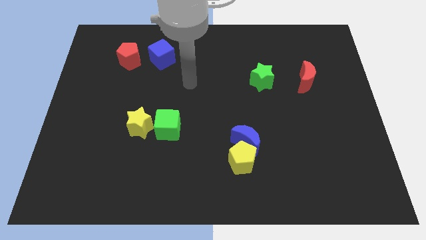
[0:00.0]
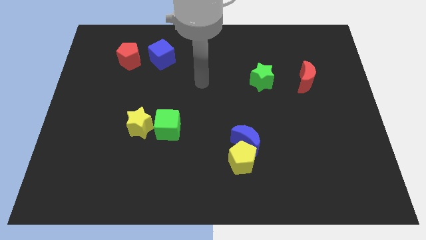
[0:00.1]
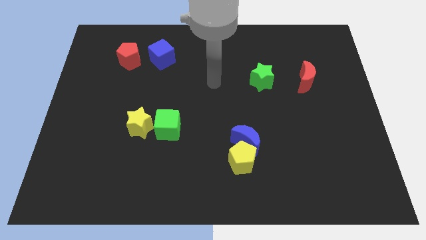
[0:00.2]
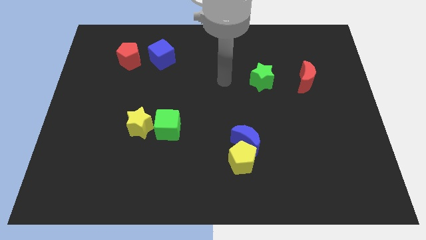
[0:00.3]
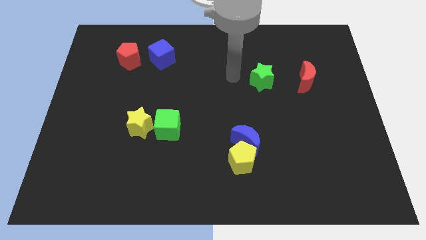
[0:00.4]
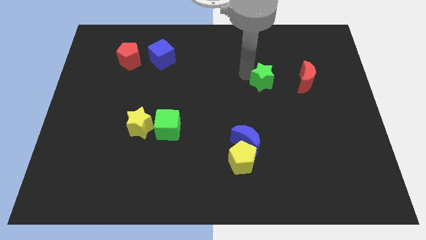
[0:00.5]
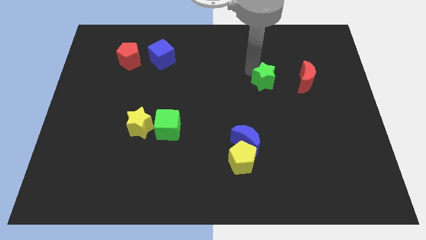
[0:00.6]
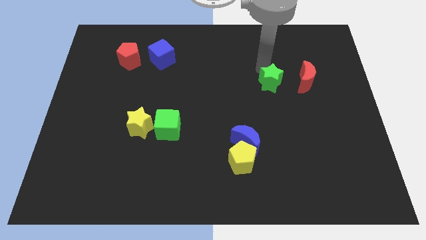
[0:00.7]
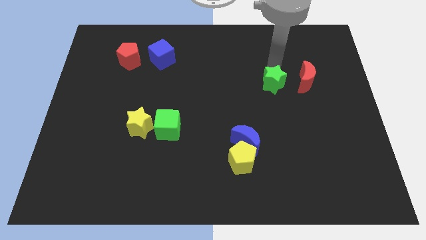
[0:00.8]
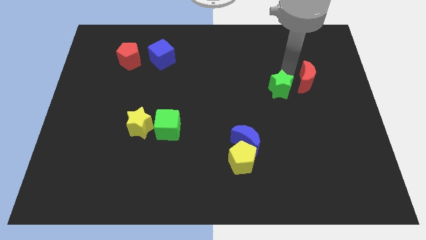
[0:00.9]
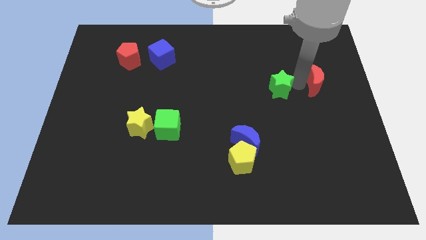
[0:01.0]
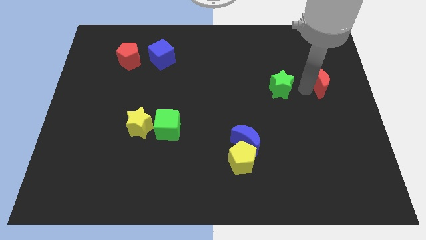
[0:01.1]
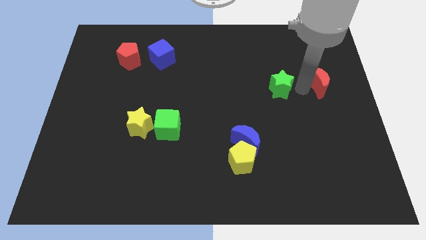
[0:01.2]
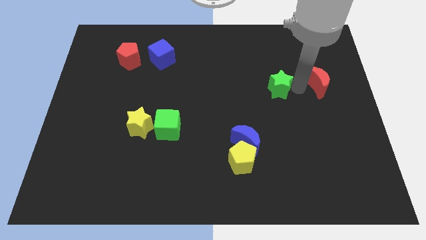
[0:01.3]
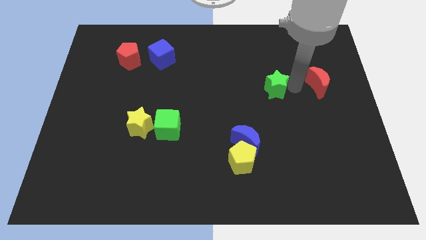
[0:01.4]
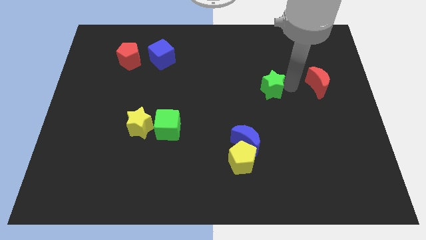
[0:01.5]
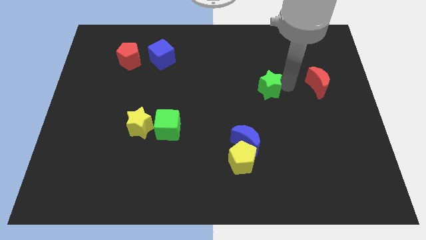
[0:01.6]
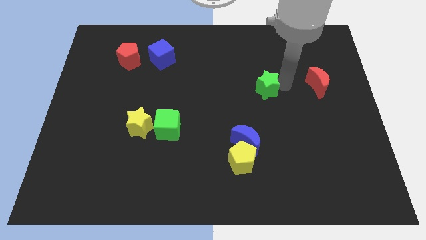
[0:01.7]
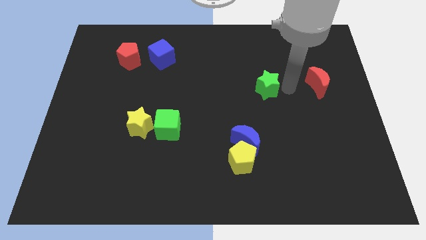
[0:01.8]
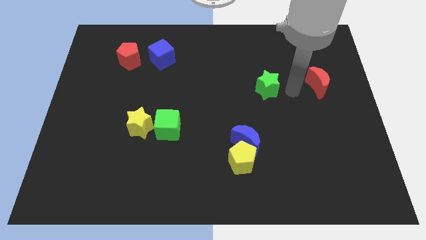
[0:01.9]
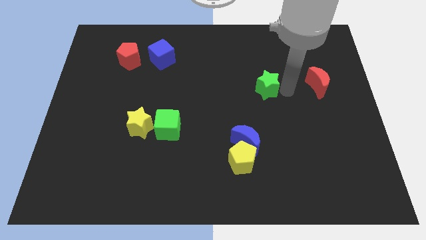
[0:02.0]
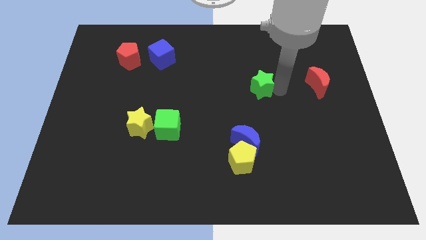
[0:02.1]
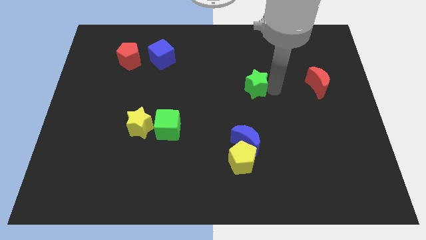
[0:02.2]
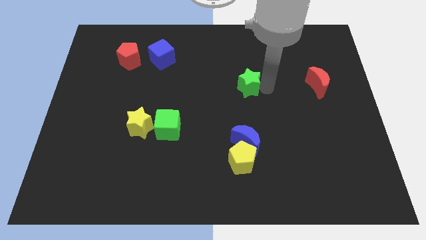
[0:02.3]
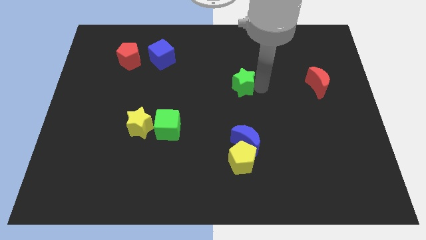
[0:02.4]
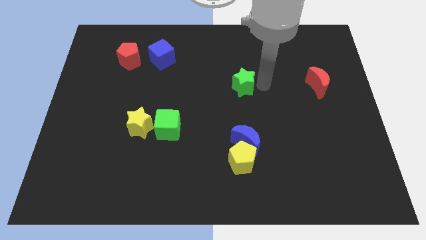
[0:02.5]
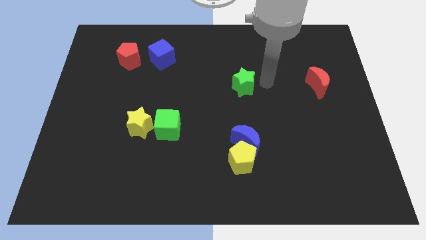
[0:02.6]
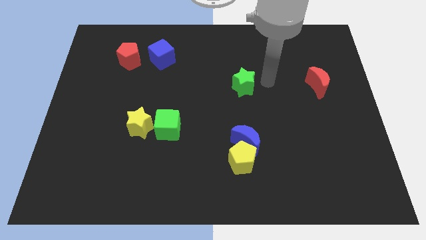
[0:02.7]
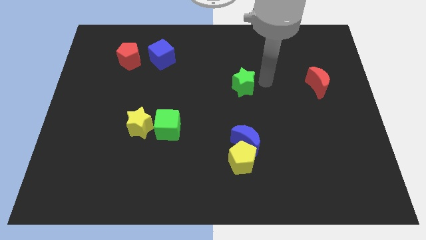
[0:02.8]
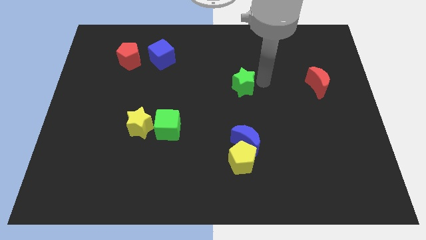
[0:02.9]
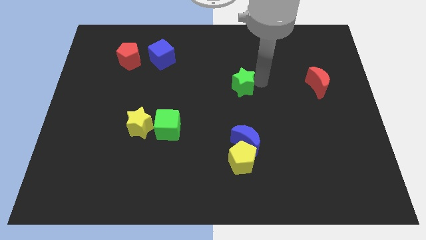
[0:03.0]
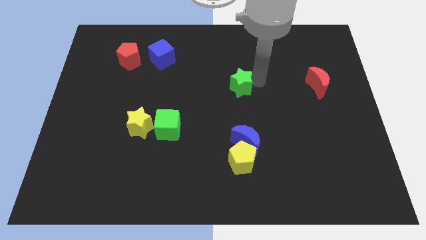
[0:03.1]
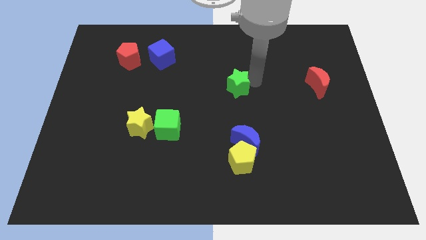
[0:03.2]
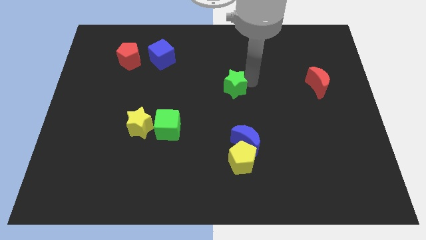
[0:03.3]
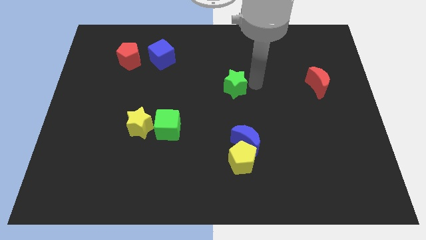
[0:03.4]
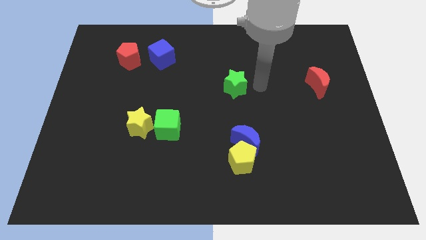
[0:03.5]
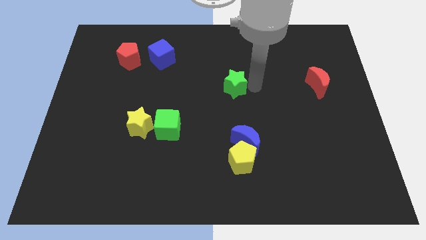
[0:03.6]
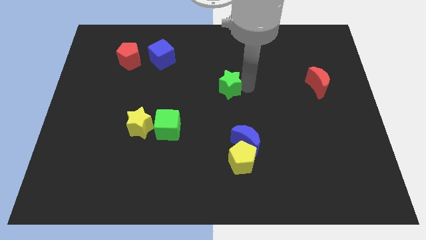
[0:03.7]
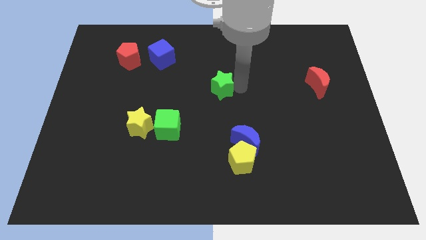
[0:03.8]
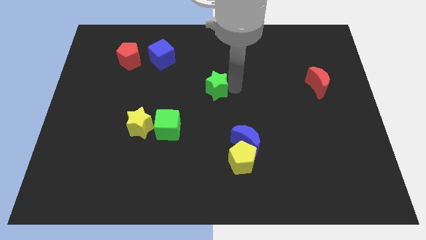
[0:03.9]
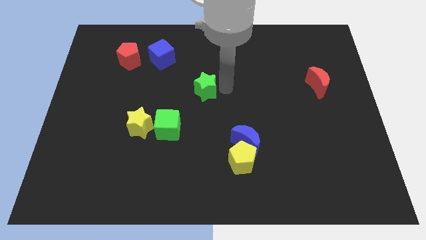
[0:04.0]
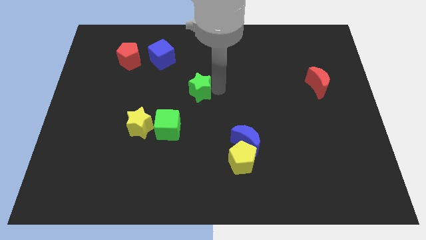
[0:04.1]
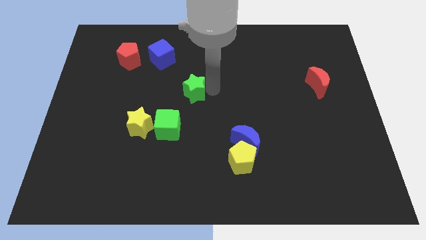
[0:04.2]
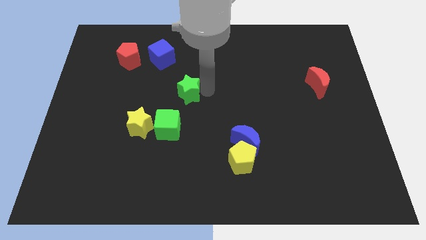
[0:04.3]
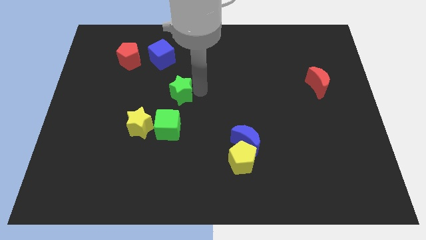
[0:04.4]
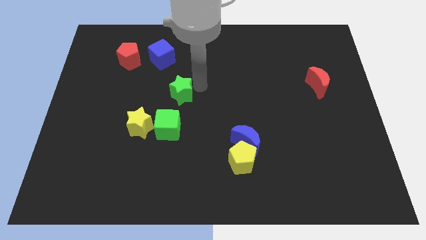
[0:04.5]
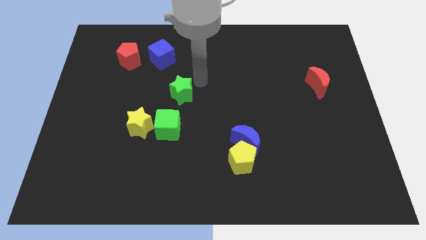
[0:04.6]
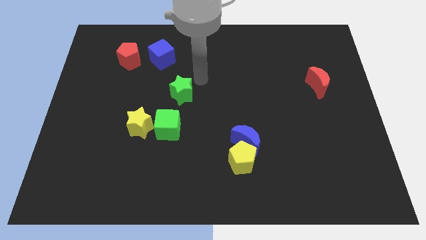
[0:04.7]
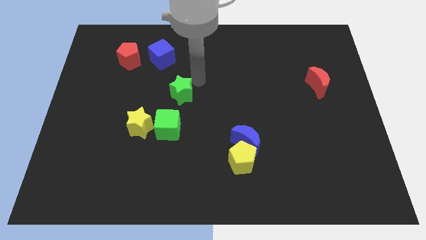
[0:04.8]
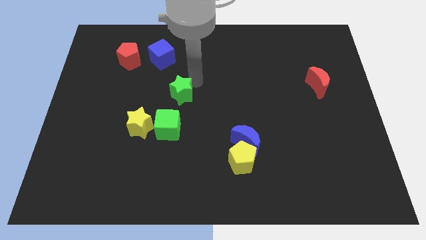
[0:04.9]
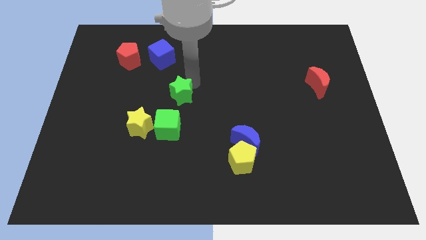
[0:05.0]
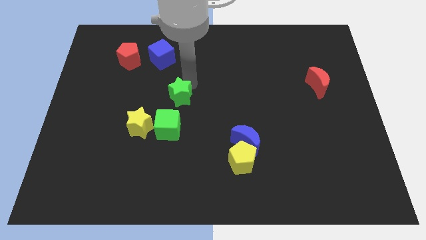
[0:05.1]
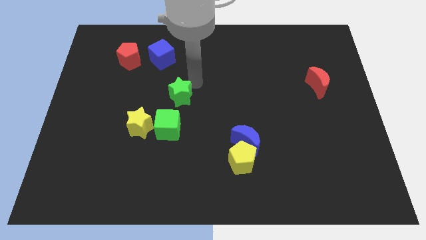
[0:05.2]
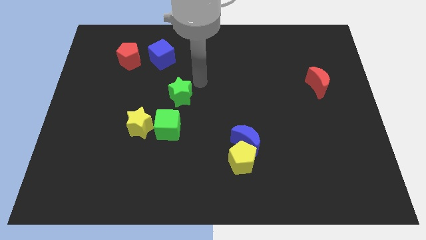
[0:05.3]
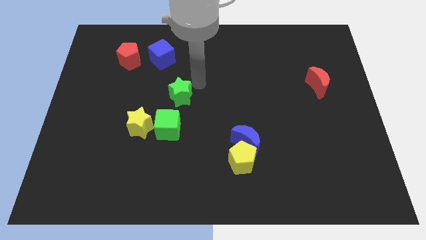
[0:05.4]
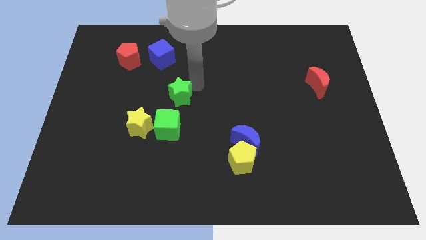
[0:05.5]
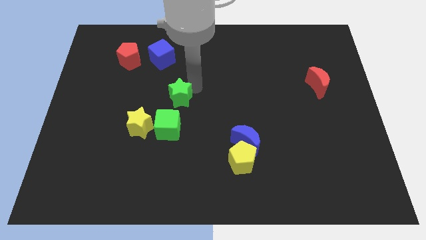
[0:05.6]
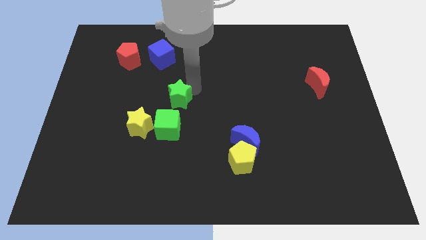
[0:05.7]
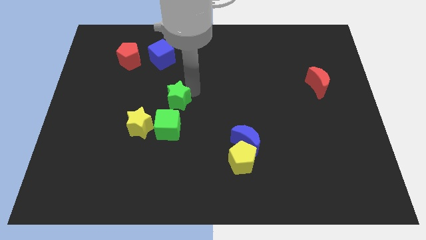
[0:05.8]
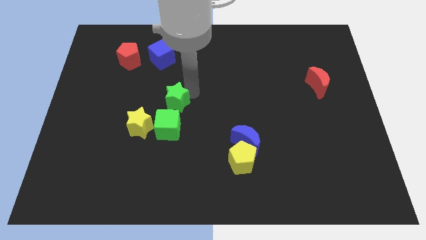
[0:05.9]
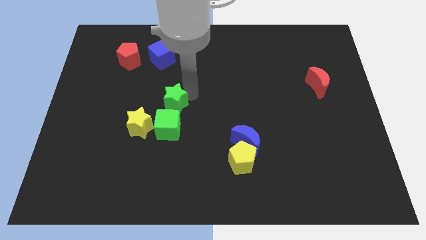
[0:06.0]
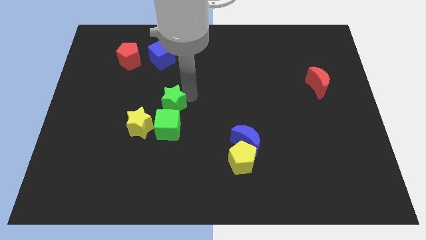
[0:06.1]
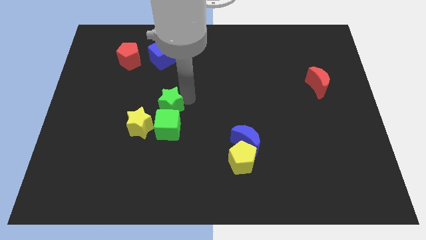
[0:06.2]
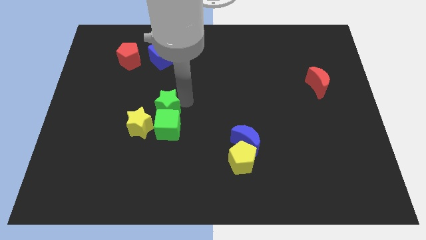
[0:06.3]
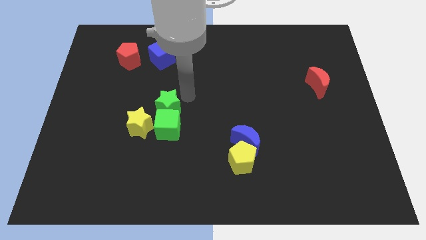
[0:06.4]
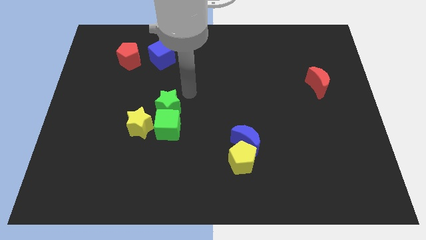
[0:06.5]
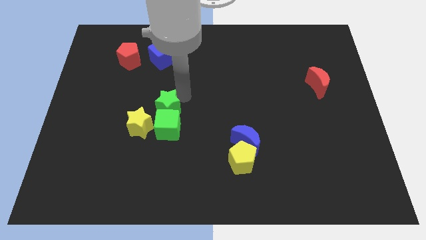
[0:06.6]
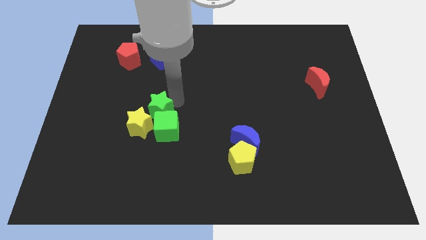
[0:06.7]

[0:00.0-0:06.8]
move the green star close to the yellow star

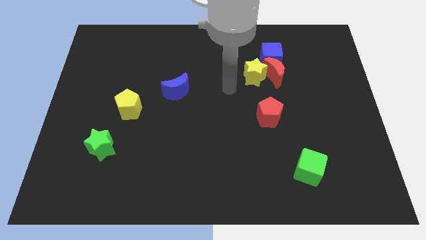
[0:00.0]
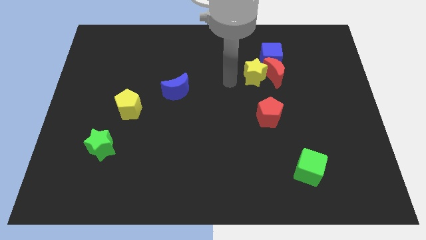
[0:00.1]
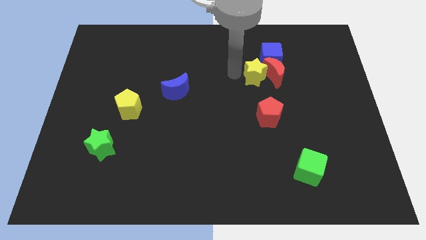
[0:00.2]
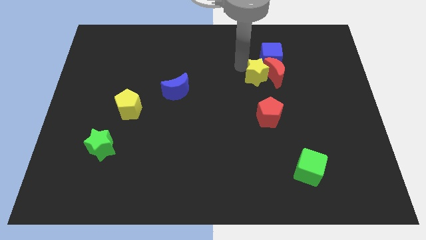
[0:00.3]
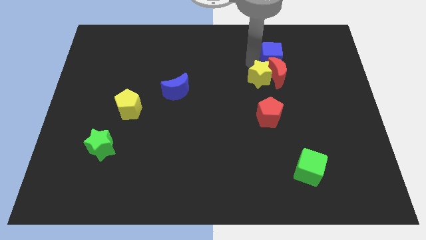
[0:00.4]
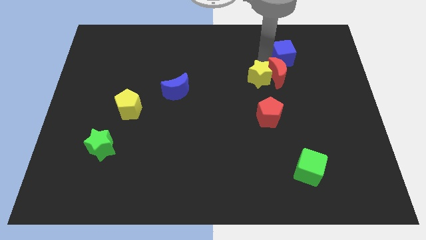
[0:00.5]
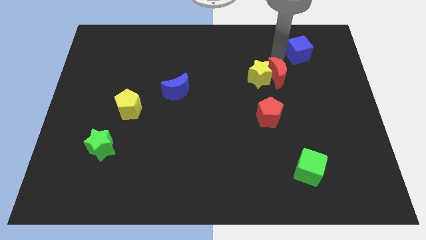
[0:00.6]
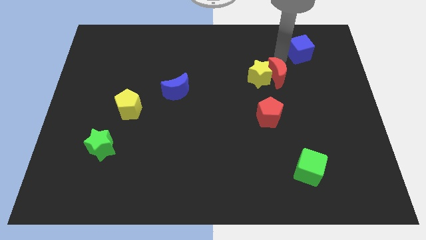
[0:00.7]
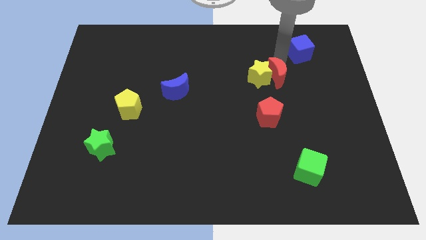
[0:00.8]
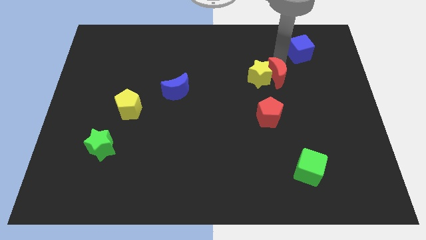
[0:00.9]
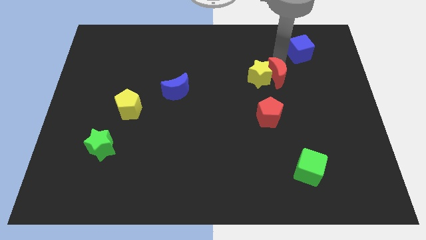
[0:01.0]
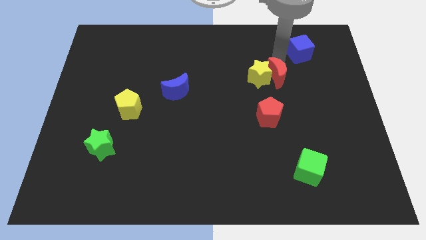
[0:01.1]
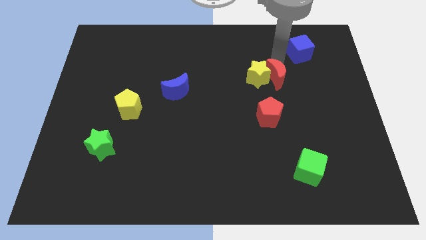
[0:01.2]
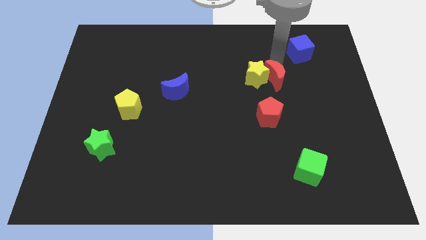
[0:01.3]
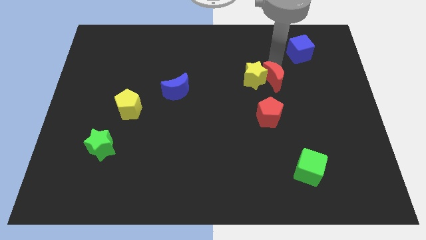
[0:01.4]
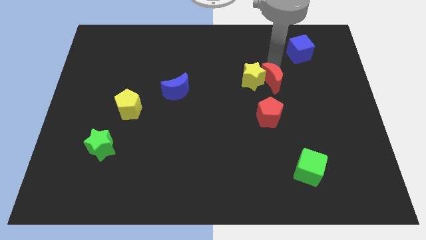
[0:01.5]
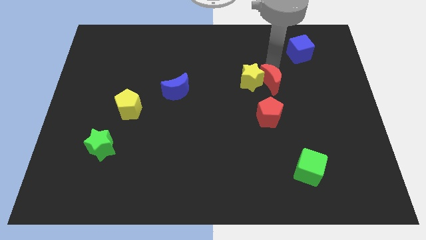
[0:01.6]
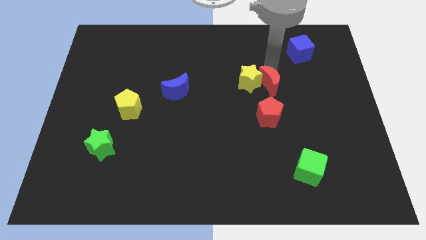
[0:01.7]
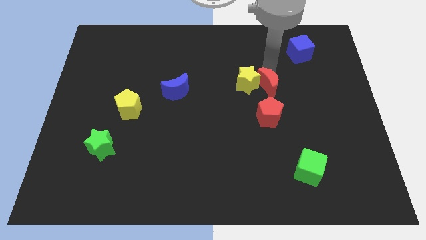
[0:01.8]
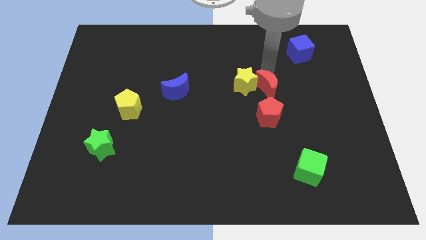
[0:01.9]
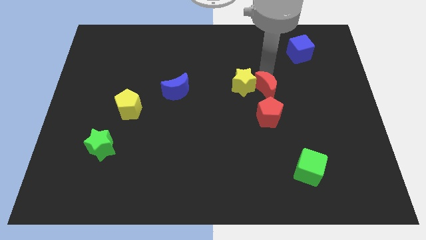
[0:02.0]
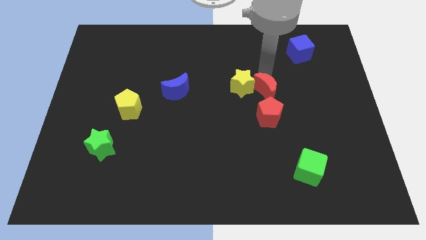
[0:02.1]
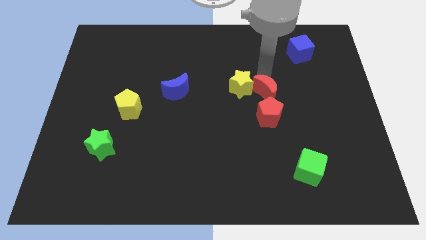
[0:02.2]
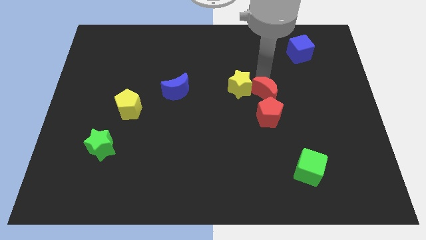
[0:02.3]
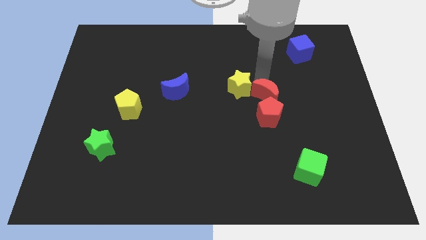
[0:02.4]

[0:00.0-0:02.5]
push the red moon to the red pentagon
